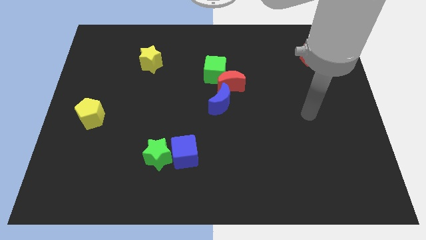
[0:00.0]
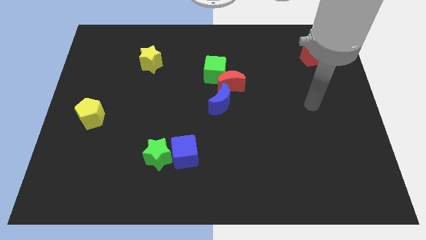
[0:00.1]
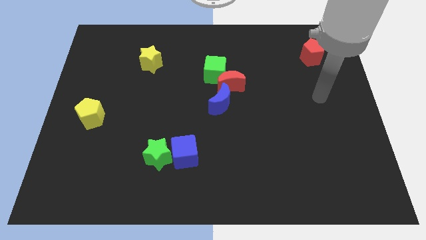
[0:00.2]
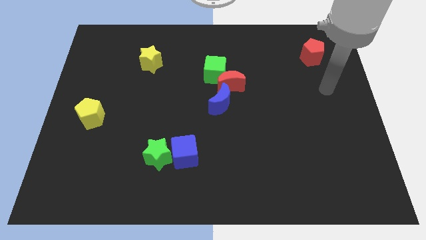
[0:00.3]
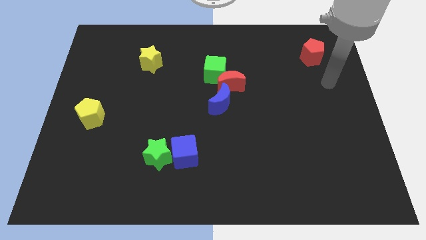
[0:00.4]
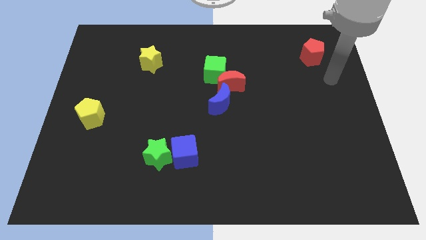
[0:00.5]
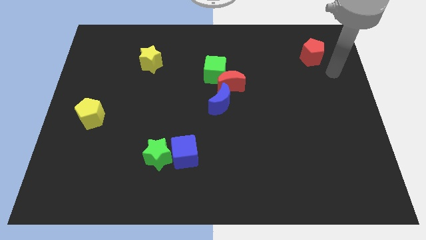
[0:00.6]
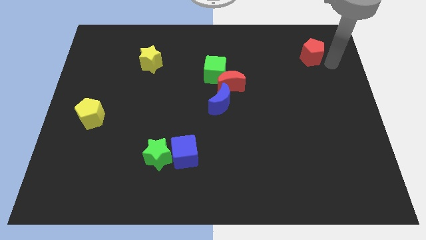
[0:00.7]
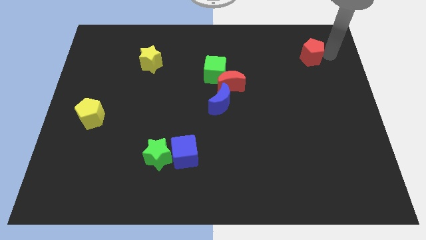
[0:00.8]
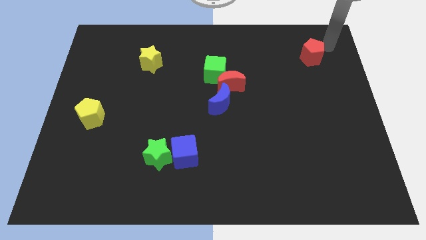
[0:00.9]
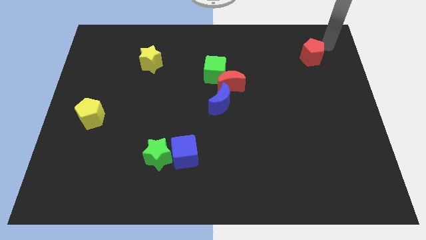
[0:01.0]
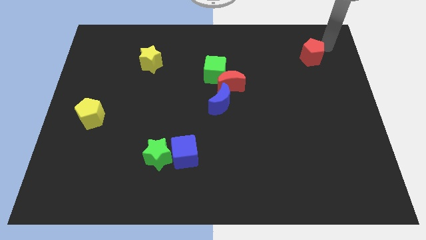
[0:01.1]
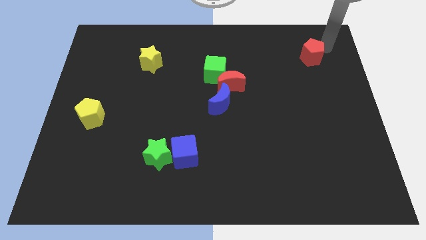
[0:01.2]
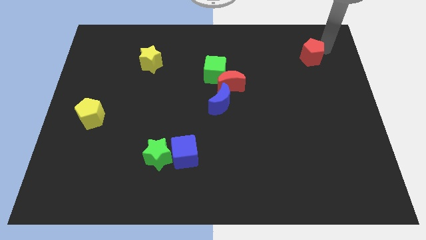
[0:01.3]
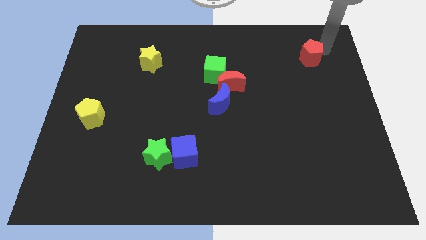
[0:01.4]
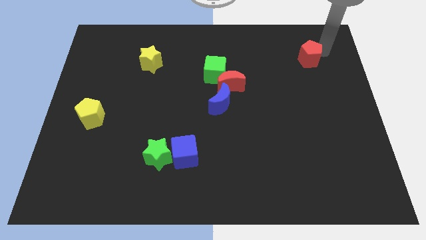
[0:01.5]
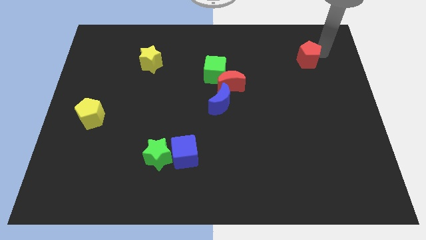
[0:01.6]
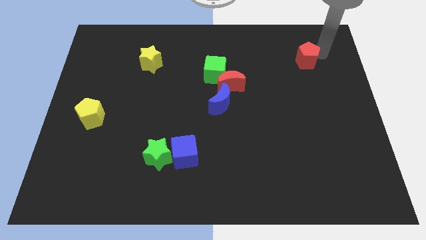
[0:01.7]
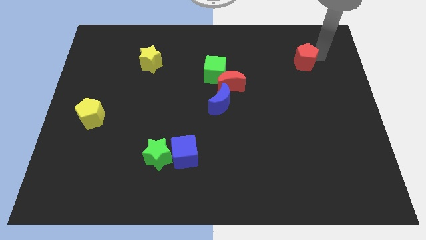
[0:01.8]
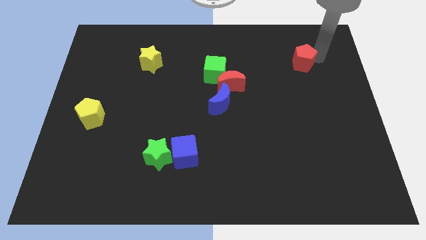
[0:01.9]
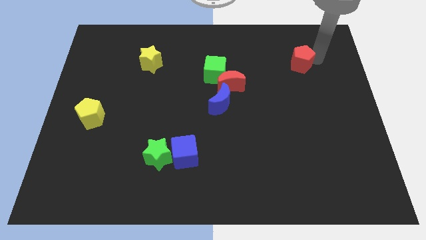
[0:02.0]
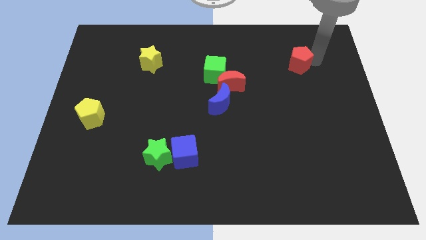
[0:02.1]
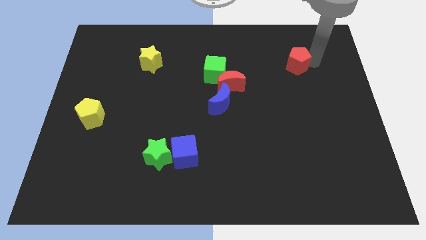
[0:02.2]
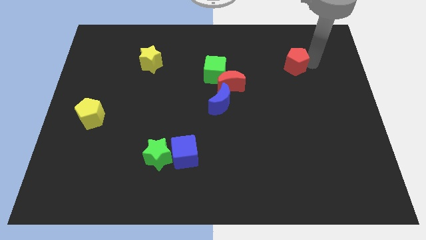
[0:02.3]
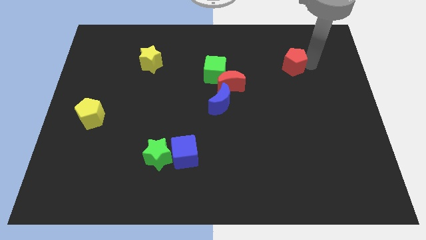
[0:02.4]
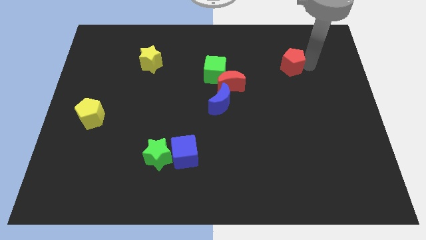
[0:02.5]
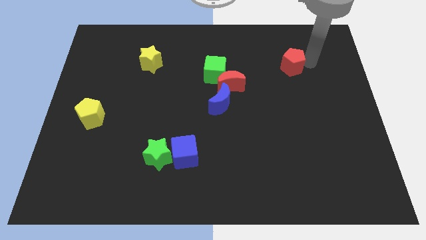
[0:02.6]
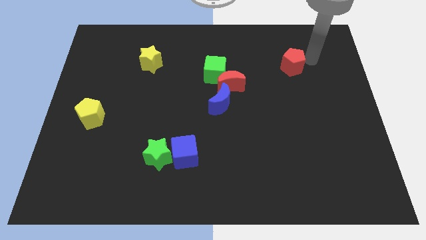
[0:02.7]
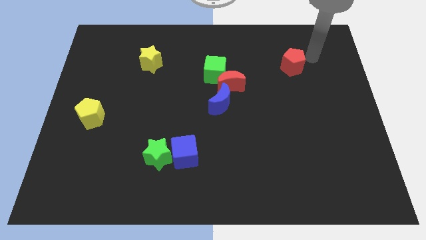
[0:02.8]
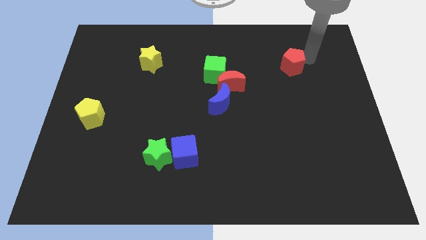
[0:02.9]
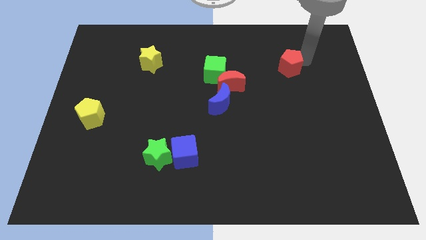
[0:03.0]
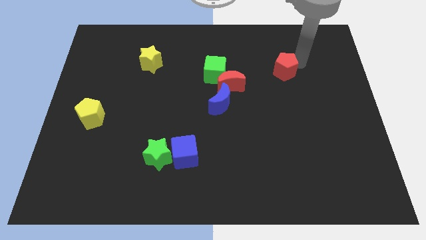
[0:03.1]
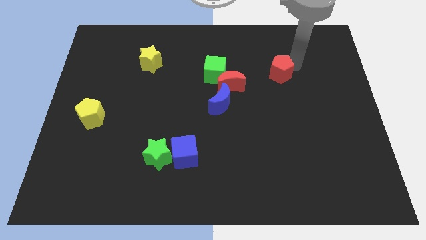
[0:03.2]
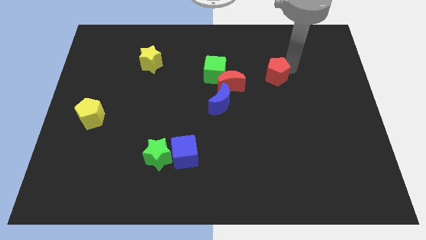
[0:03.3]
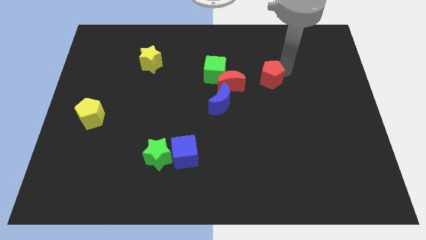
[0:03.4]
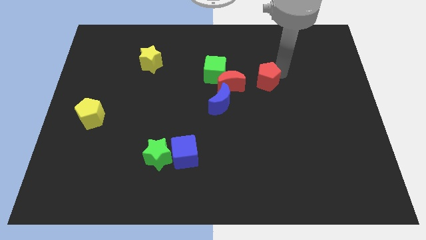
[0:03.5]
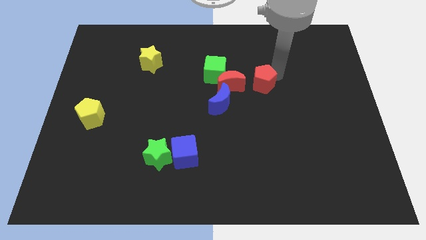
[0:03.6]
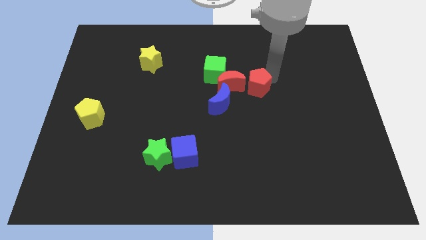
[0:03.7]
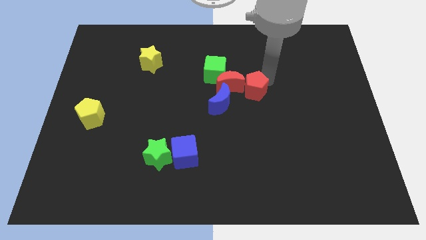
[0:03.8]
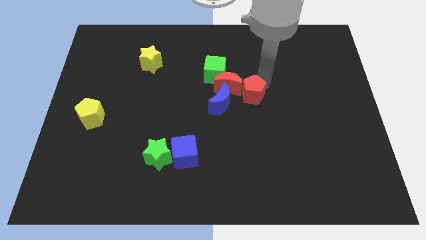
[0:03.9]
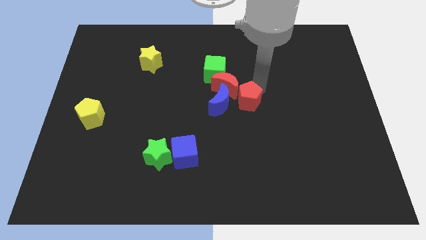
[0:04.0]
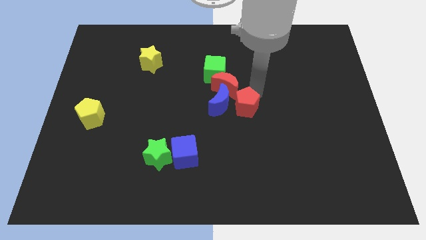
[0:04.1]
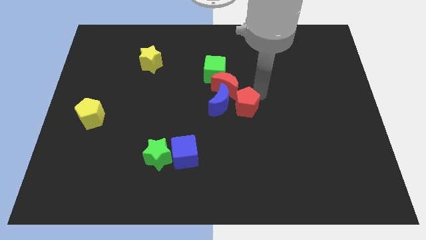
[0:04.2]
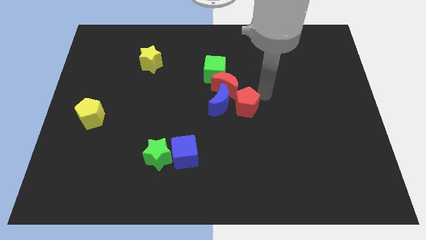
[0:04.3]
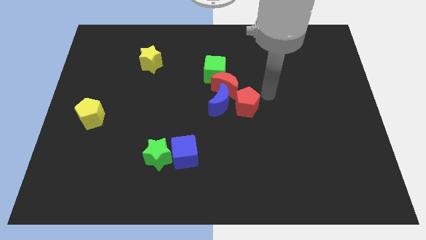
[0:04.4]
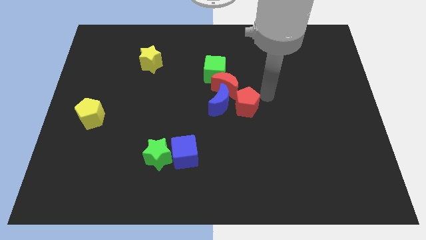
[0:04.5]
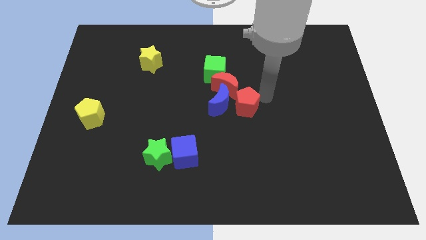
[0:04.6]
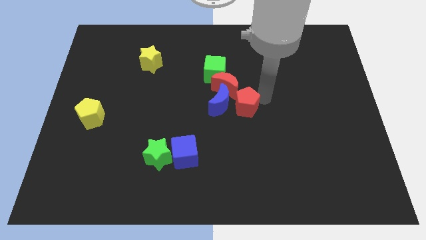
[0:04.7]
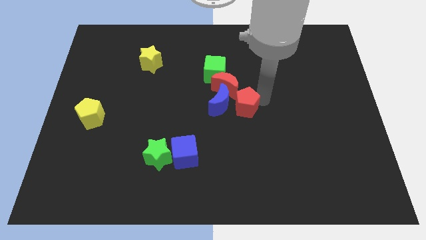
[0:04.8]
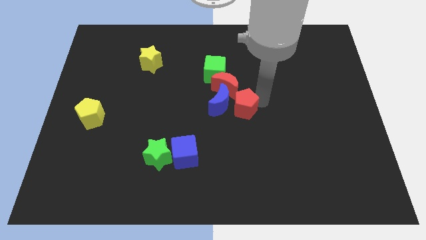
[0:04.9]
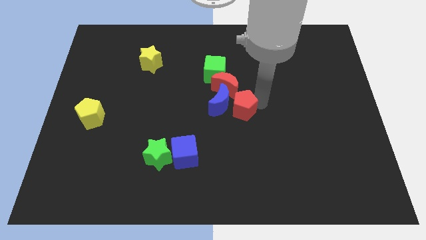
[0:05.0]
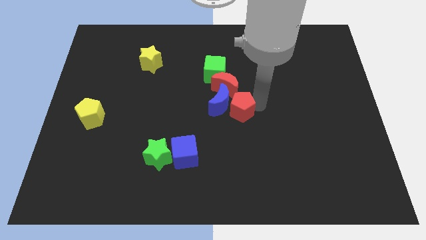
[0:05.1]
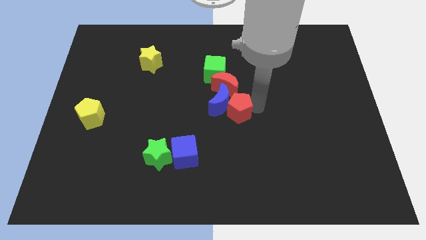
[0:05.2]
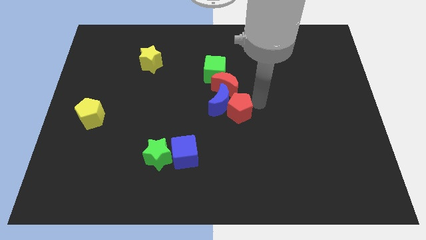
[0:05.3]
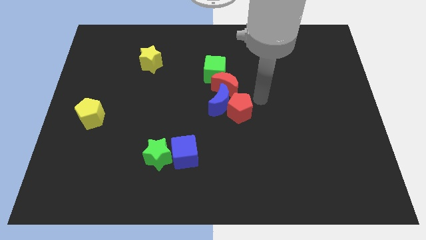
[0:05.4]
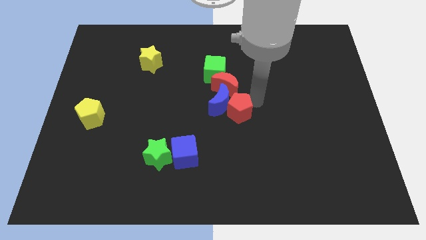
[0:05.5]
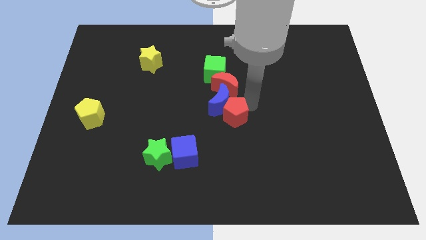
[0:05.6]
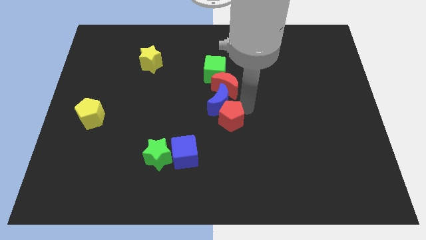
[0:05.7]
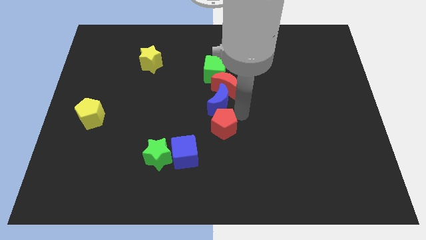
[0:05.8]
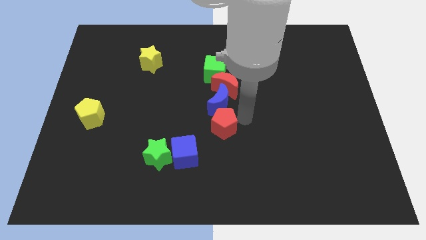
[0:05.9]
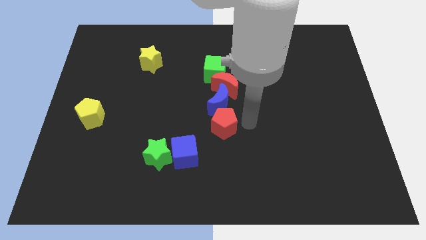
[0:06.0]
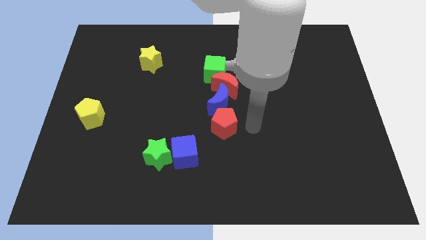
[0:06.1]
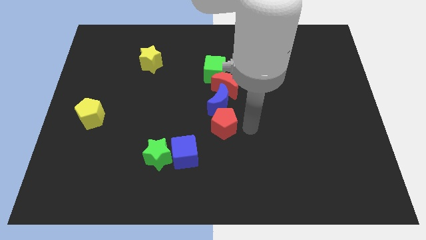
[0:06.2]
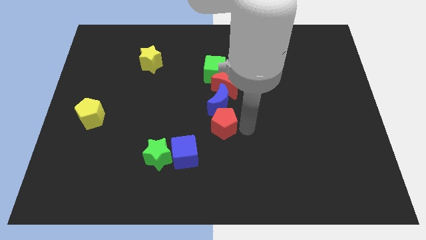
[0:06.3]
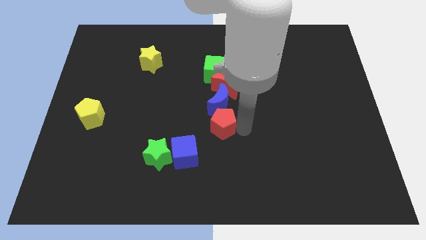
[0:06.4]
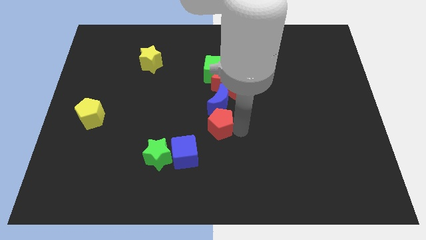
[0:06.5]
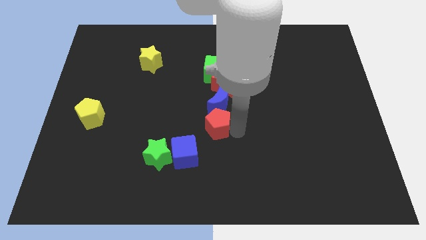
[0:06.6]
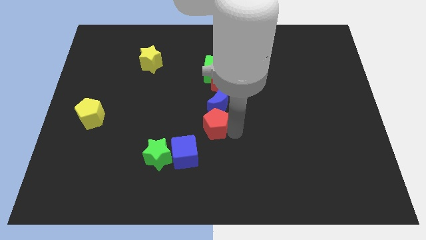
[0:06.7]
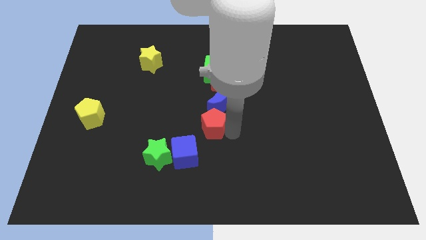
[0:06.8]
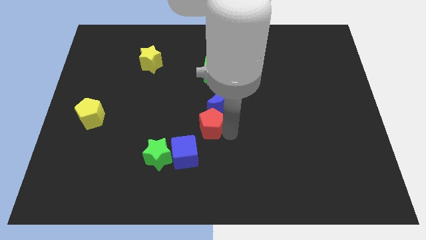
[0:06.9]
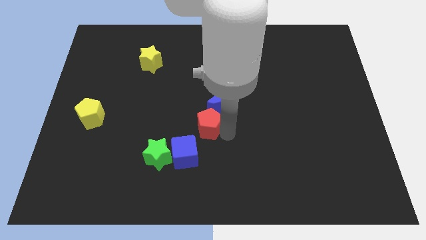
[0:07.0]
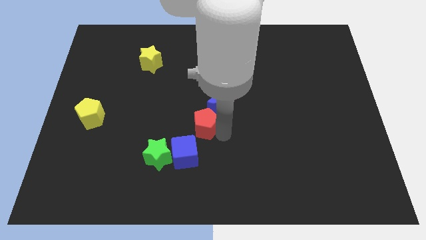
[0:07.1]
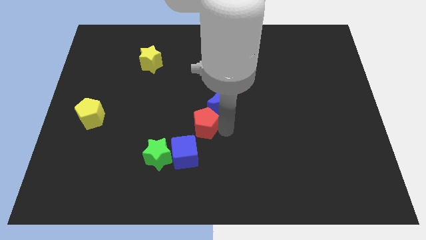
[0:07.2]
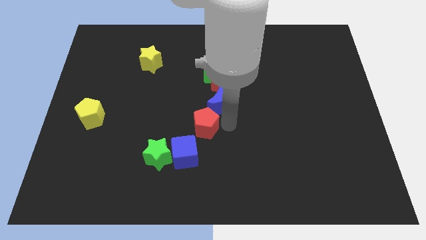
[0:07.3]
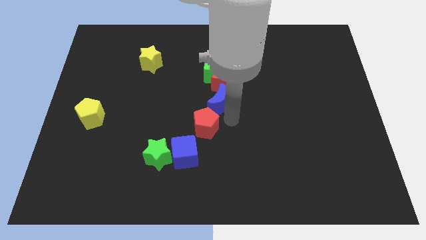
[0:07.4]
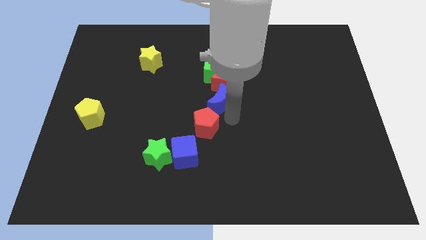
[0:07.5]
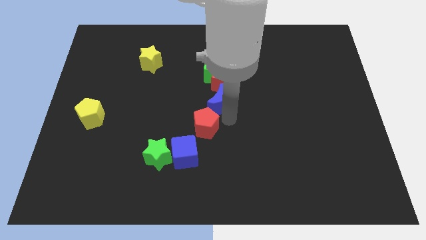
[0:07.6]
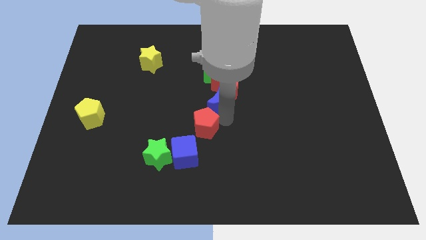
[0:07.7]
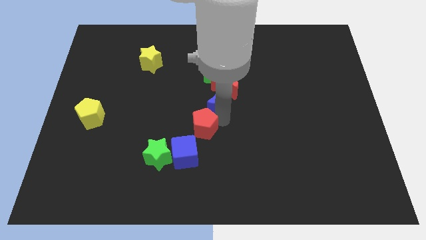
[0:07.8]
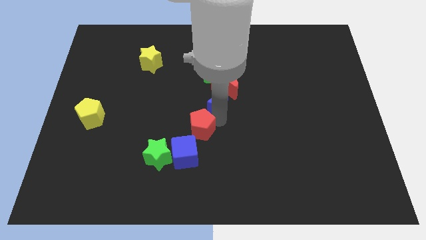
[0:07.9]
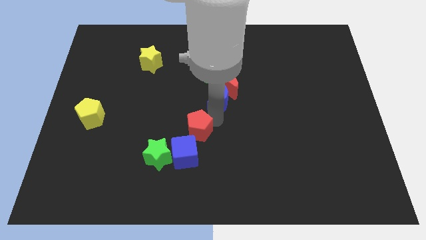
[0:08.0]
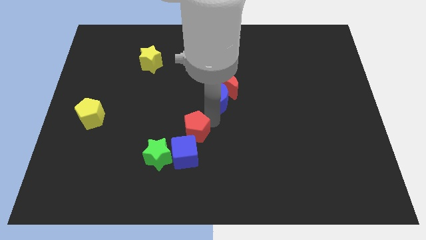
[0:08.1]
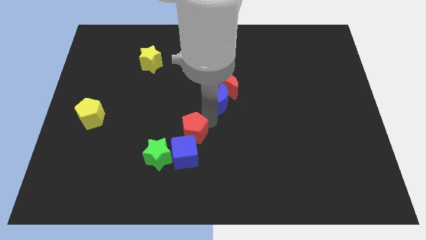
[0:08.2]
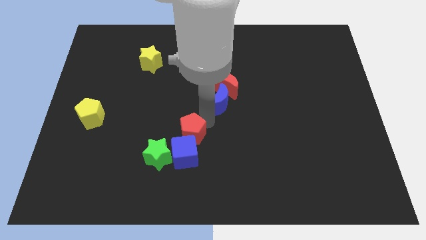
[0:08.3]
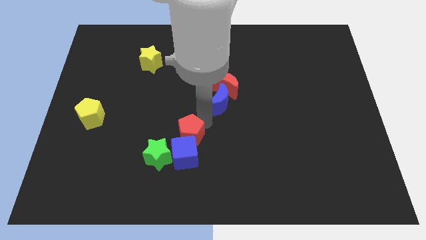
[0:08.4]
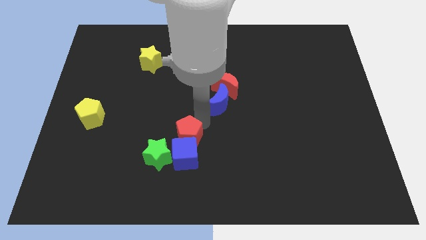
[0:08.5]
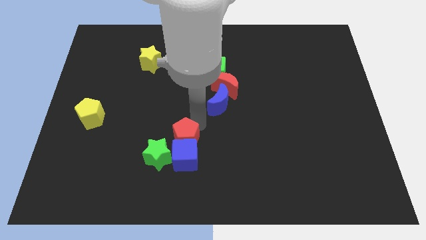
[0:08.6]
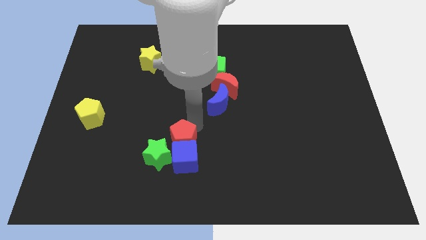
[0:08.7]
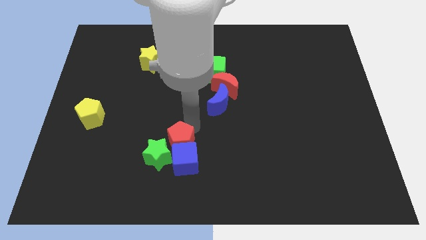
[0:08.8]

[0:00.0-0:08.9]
put the red pentagon to the green star
